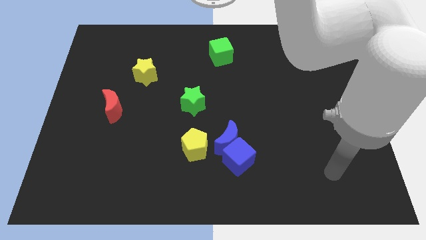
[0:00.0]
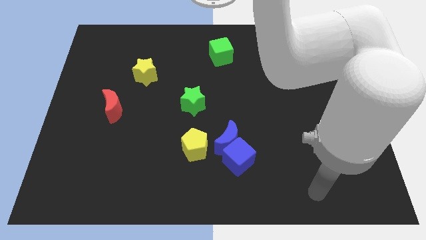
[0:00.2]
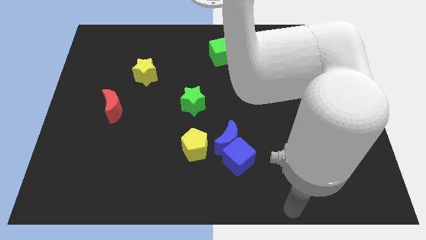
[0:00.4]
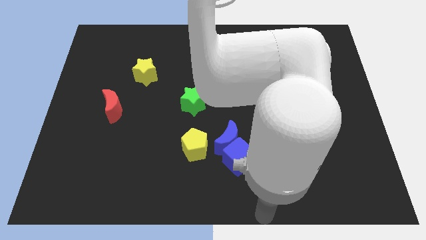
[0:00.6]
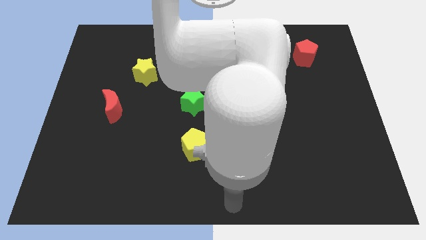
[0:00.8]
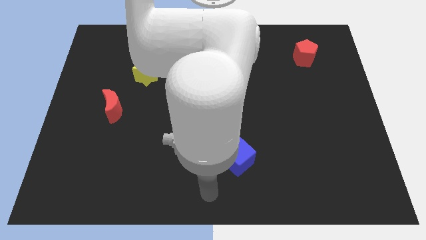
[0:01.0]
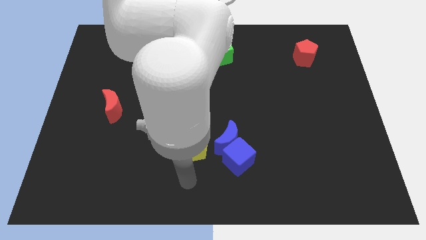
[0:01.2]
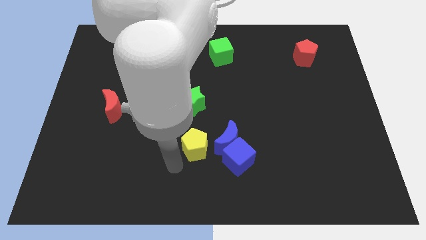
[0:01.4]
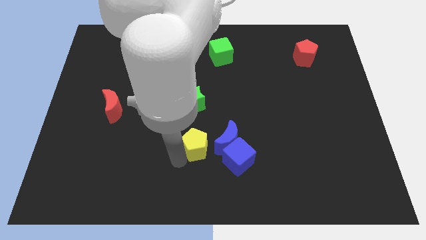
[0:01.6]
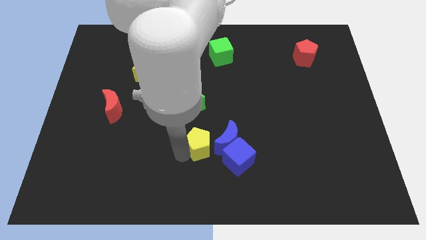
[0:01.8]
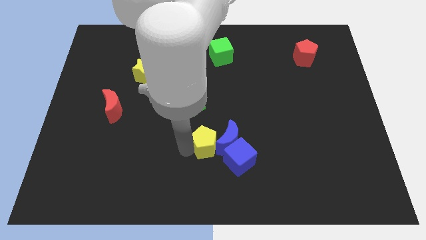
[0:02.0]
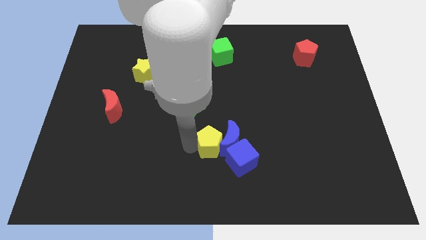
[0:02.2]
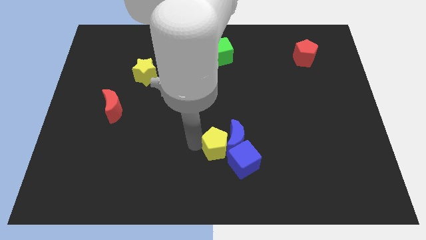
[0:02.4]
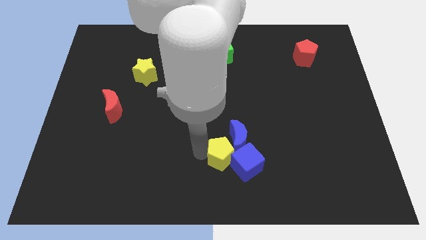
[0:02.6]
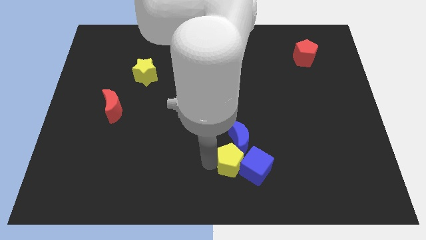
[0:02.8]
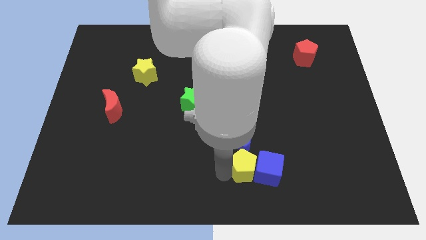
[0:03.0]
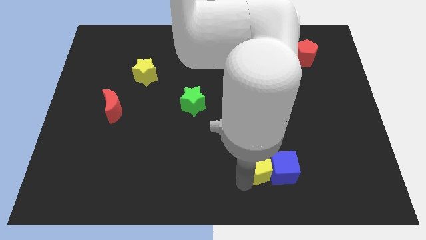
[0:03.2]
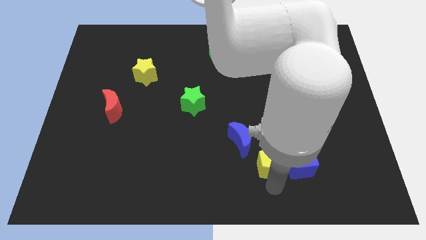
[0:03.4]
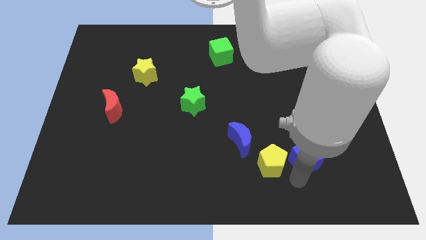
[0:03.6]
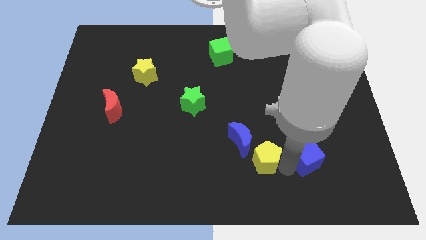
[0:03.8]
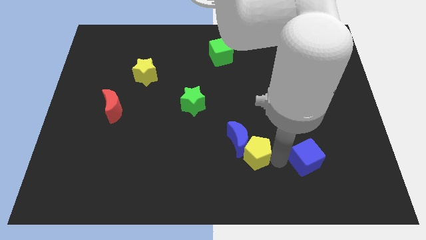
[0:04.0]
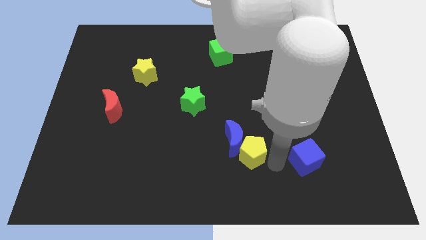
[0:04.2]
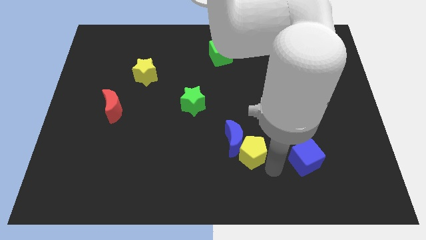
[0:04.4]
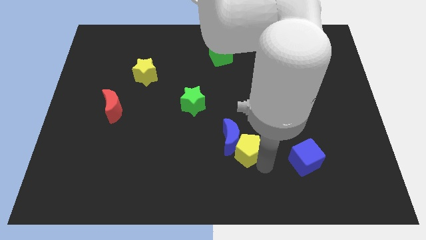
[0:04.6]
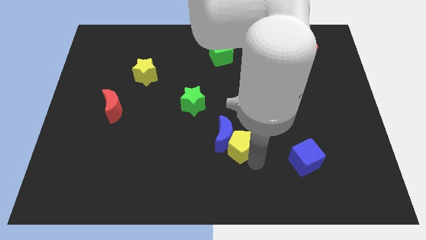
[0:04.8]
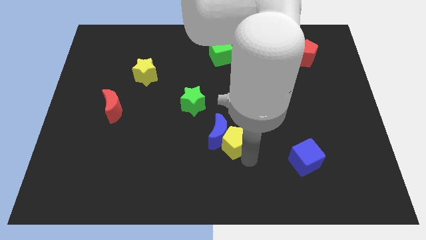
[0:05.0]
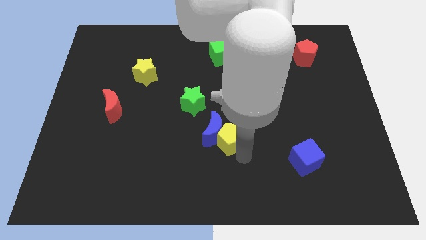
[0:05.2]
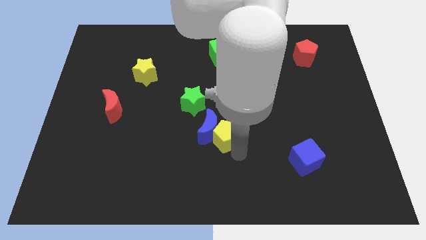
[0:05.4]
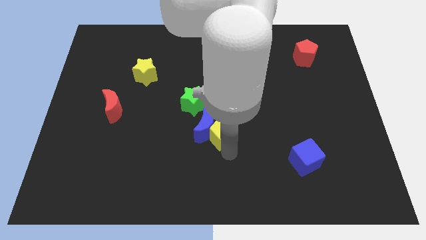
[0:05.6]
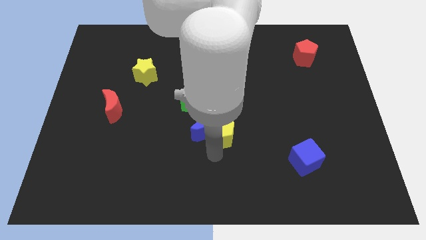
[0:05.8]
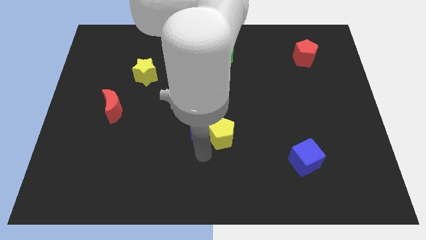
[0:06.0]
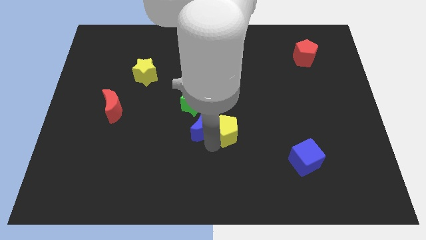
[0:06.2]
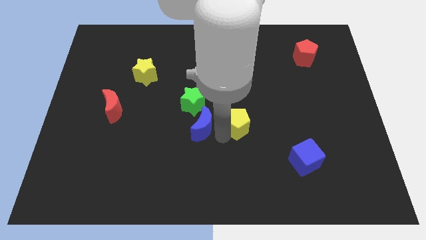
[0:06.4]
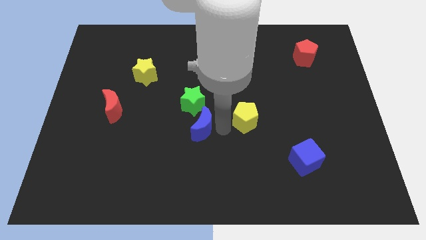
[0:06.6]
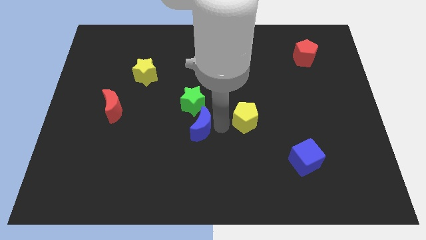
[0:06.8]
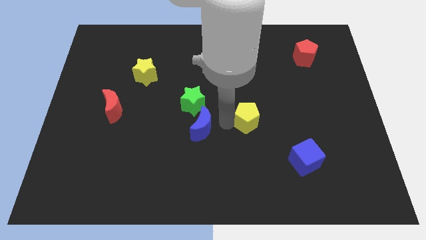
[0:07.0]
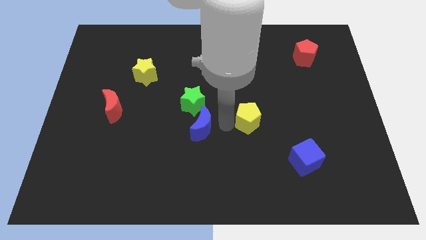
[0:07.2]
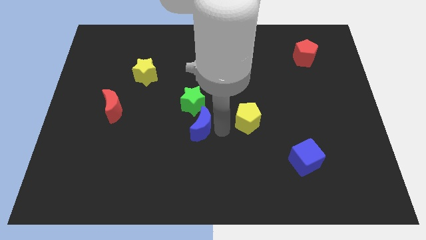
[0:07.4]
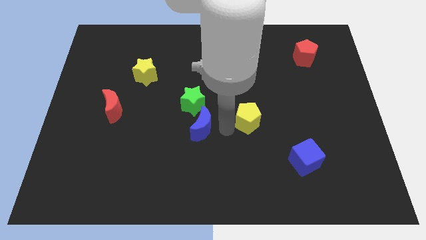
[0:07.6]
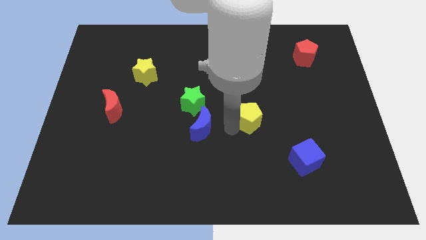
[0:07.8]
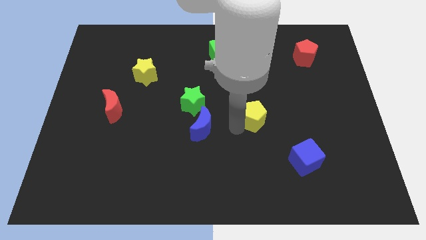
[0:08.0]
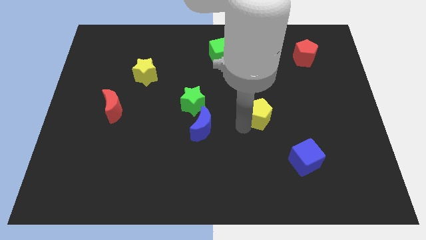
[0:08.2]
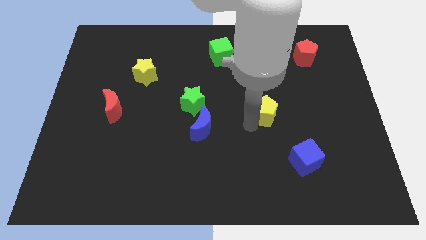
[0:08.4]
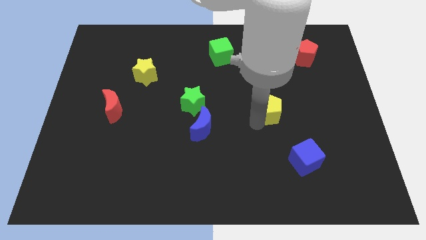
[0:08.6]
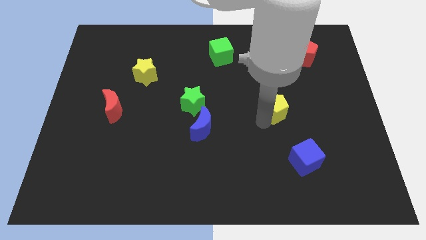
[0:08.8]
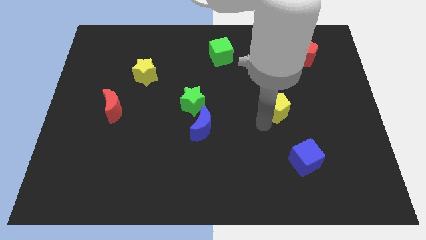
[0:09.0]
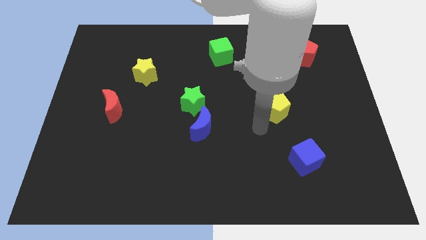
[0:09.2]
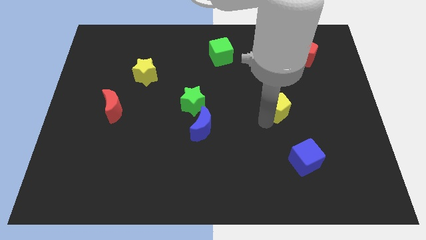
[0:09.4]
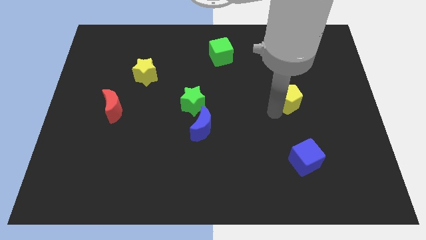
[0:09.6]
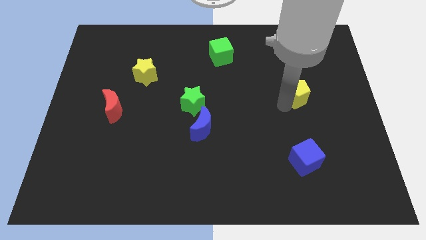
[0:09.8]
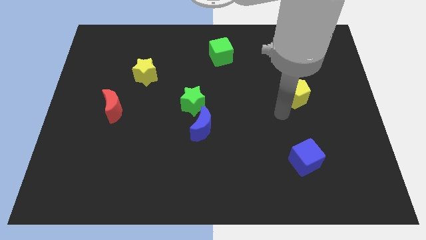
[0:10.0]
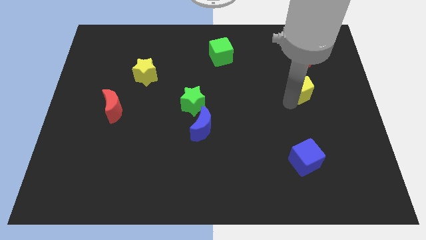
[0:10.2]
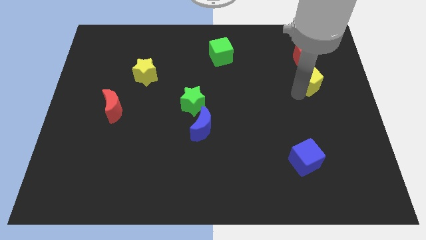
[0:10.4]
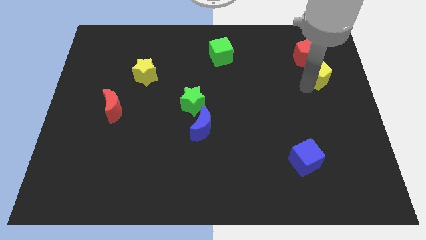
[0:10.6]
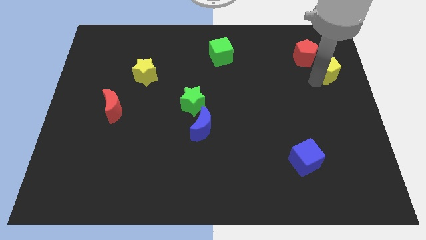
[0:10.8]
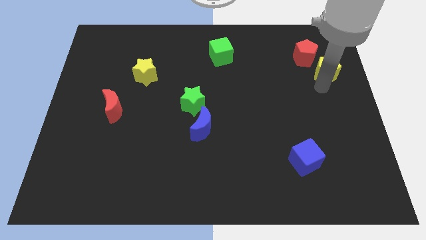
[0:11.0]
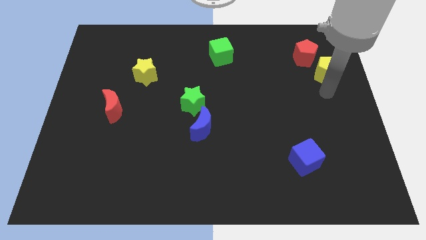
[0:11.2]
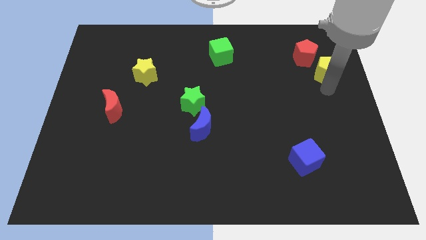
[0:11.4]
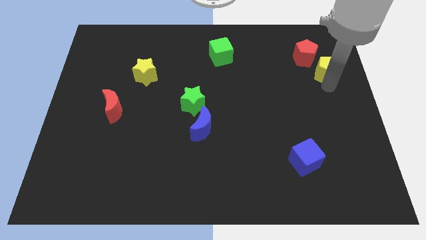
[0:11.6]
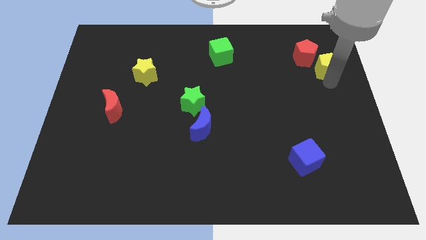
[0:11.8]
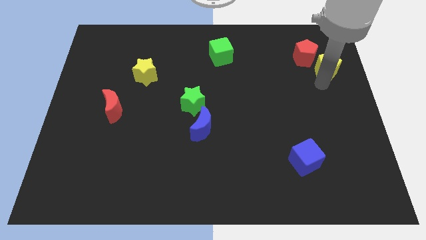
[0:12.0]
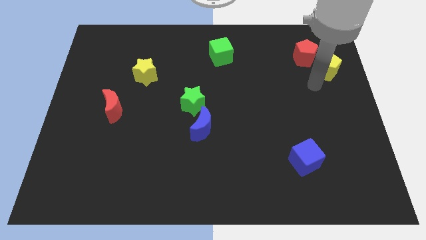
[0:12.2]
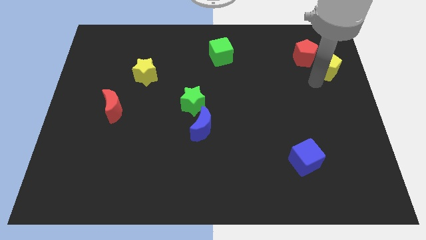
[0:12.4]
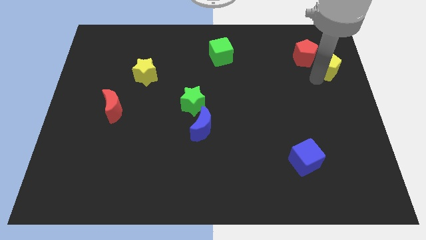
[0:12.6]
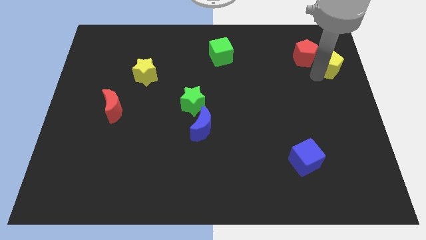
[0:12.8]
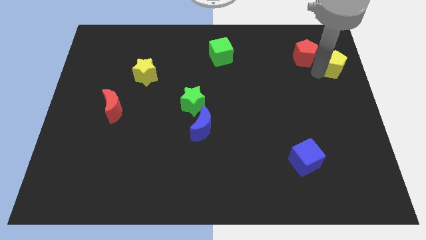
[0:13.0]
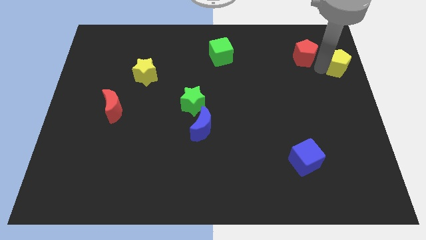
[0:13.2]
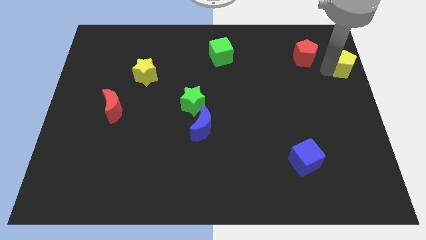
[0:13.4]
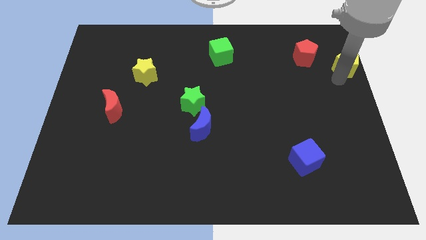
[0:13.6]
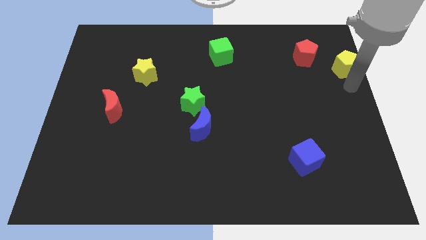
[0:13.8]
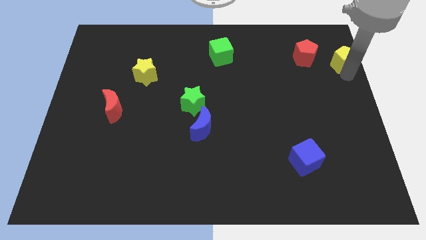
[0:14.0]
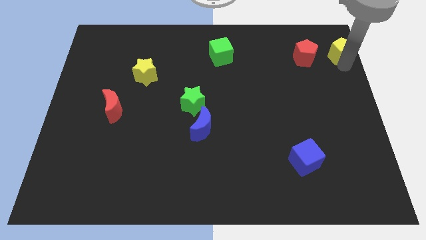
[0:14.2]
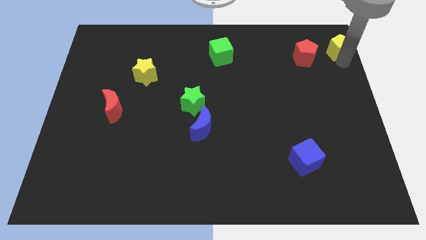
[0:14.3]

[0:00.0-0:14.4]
push the yellow pentagon to the top right
